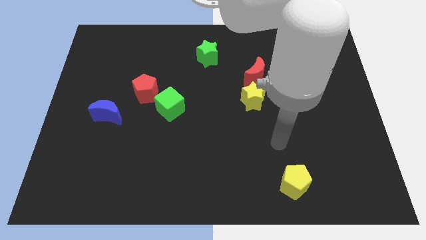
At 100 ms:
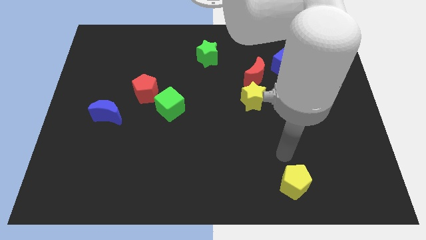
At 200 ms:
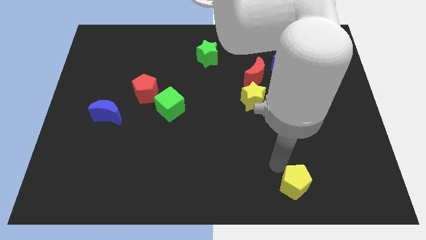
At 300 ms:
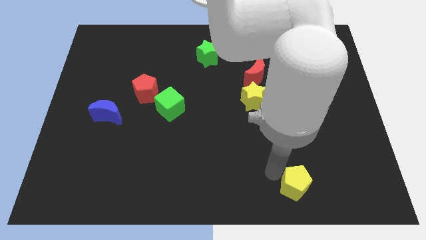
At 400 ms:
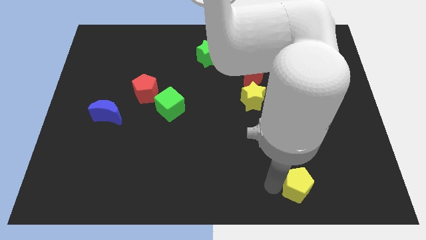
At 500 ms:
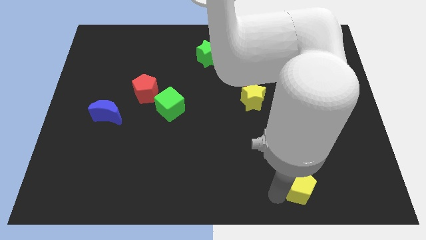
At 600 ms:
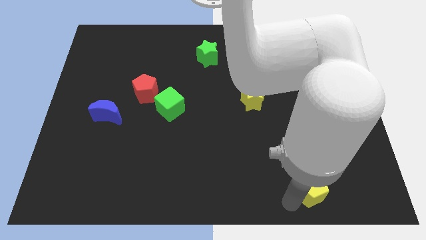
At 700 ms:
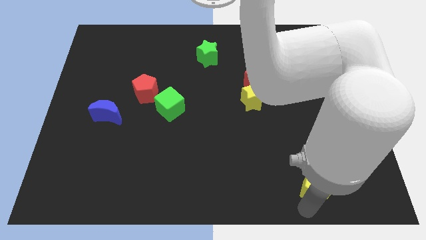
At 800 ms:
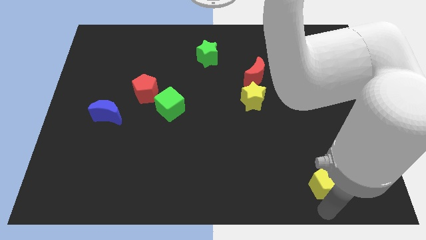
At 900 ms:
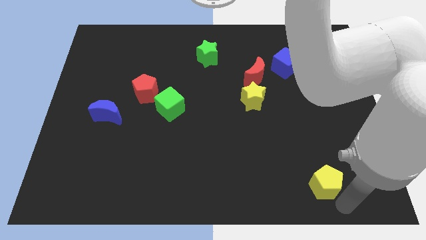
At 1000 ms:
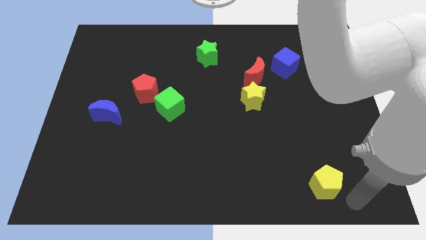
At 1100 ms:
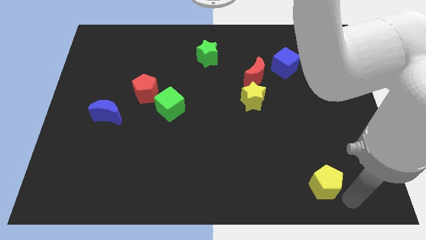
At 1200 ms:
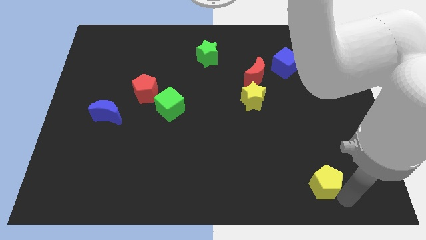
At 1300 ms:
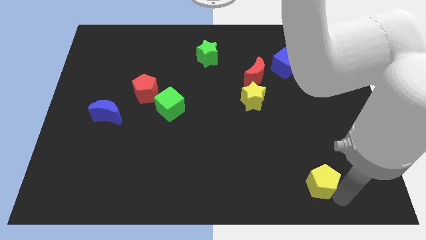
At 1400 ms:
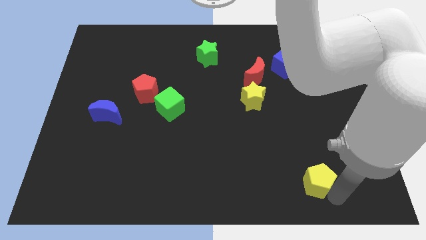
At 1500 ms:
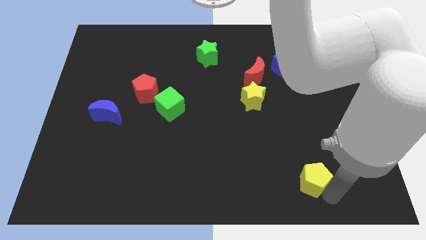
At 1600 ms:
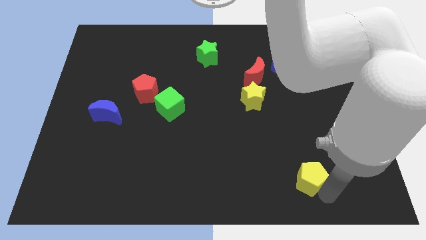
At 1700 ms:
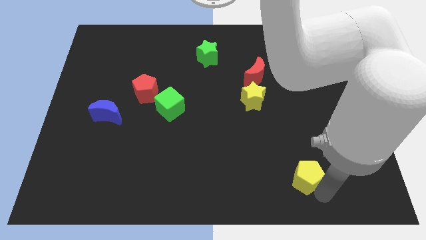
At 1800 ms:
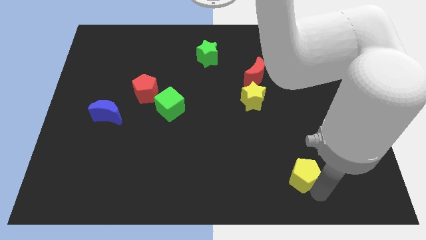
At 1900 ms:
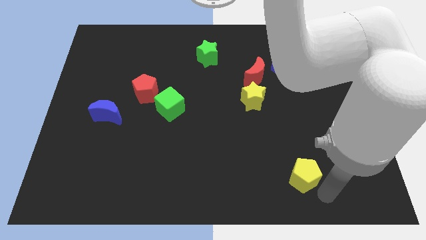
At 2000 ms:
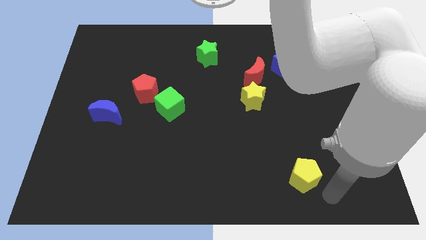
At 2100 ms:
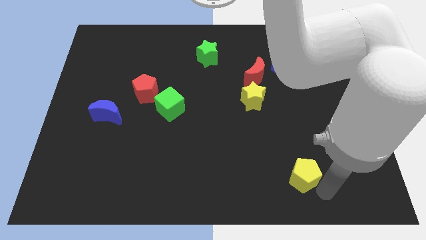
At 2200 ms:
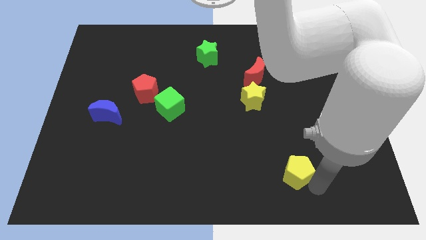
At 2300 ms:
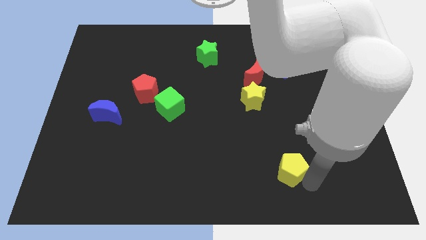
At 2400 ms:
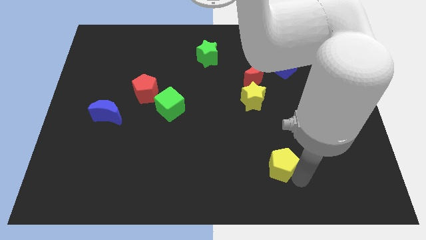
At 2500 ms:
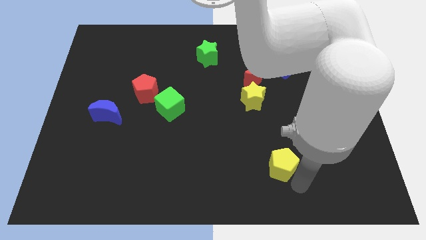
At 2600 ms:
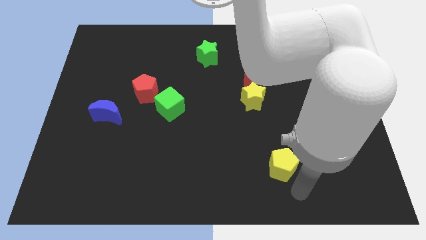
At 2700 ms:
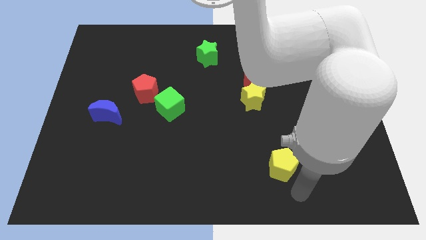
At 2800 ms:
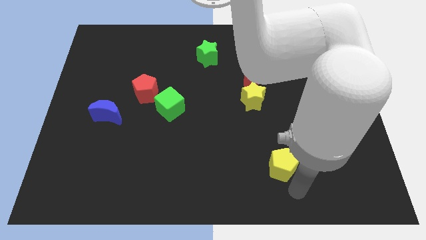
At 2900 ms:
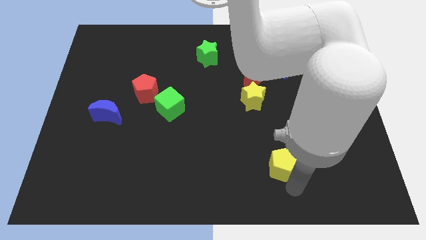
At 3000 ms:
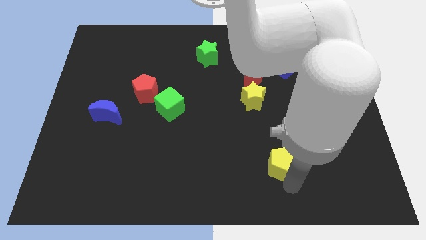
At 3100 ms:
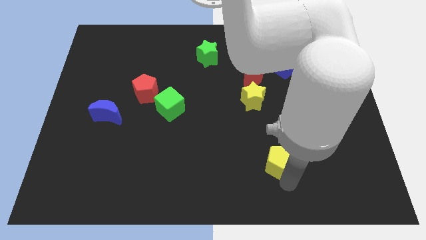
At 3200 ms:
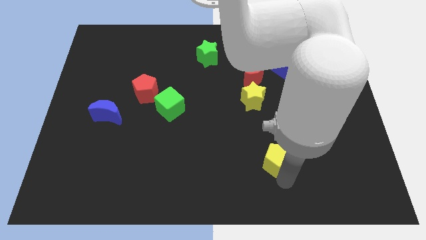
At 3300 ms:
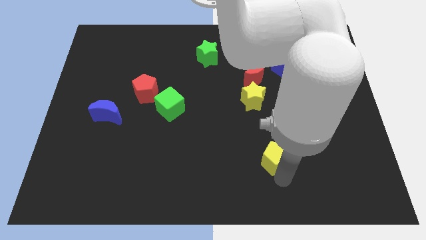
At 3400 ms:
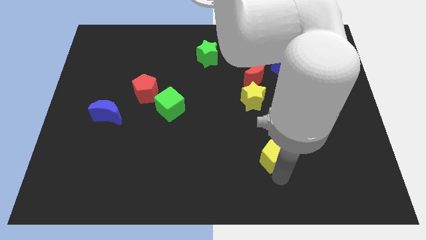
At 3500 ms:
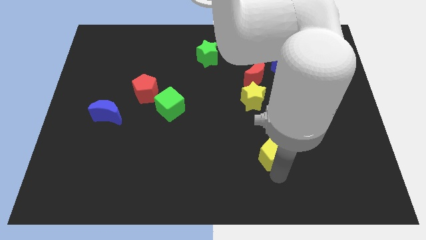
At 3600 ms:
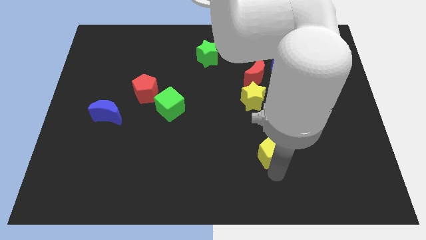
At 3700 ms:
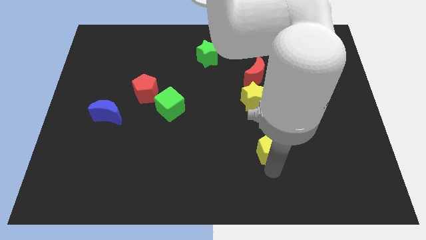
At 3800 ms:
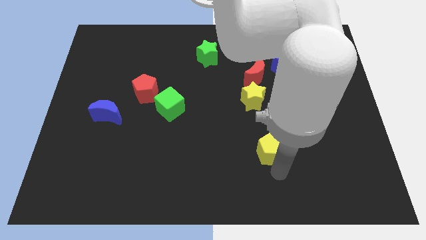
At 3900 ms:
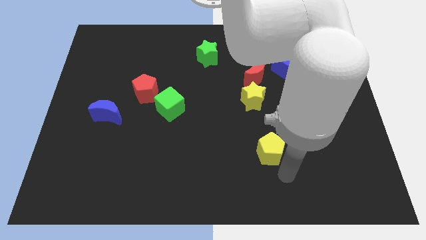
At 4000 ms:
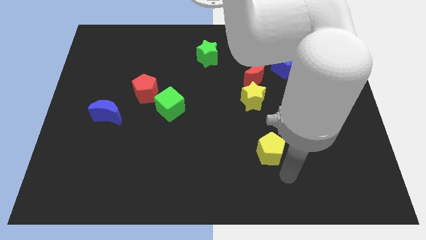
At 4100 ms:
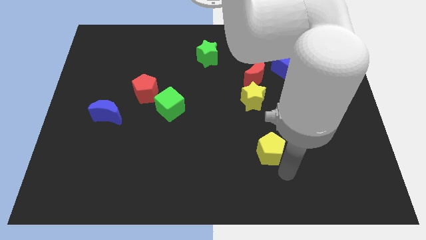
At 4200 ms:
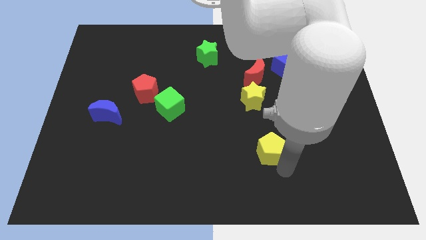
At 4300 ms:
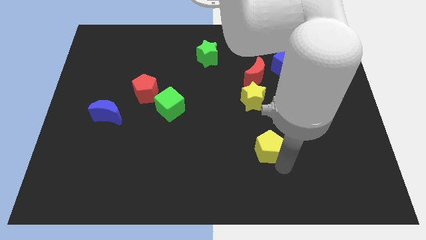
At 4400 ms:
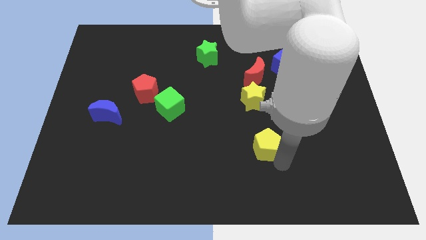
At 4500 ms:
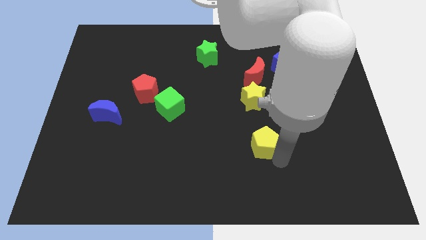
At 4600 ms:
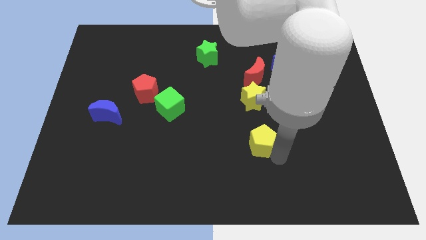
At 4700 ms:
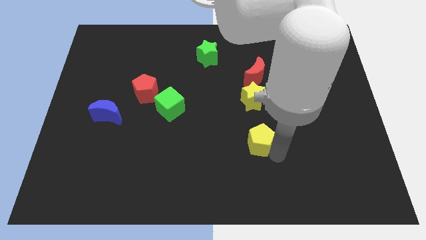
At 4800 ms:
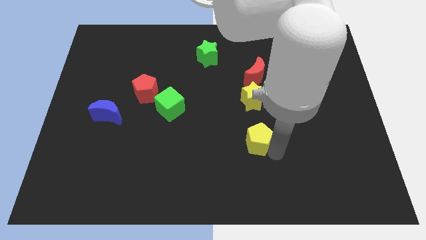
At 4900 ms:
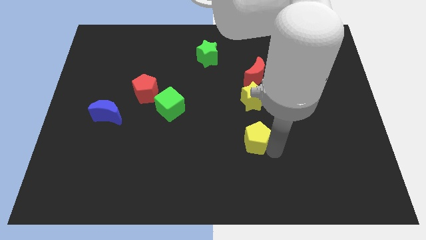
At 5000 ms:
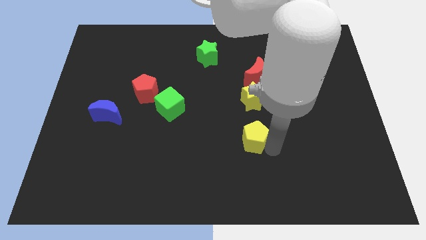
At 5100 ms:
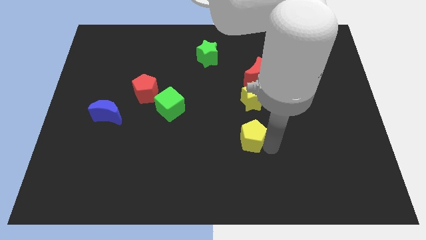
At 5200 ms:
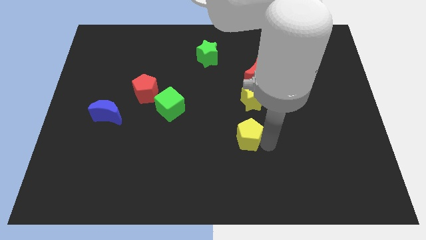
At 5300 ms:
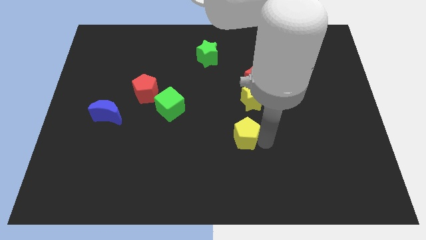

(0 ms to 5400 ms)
push the yellow pentagon to the center

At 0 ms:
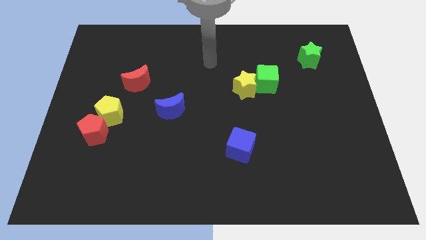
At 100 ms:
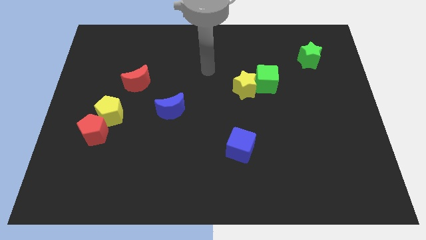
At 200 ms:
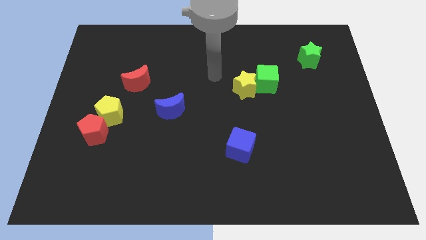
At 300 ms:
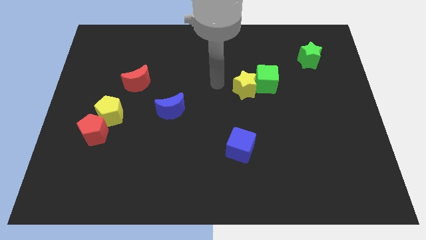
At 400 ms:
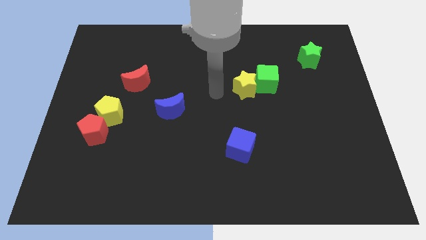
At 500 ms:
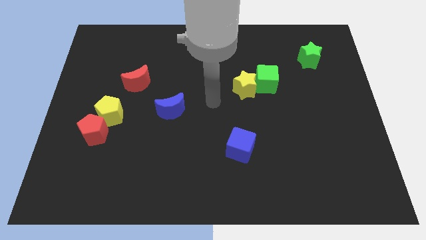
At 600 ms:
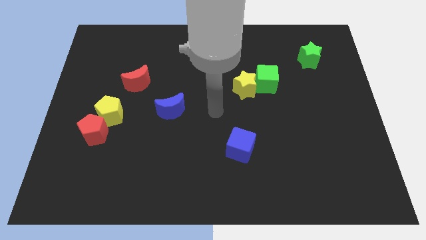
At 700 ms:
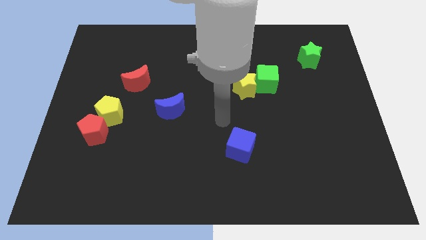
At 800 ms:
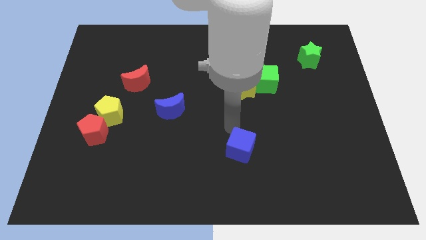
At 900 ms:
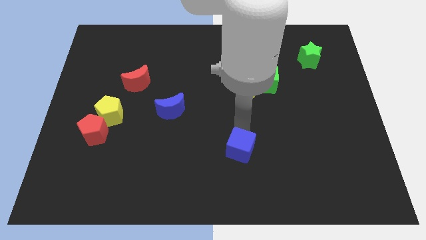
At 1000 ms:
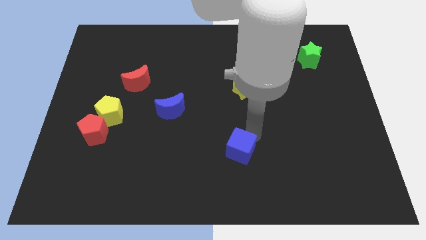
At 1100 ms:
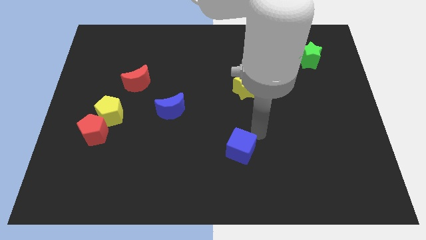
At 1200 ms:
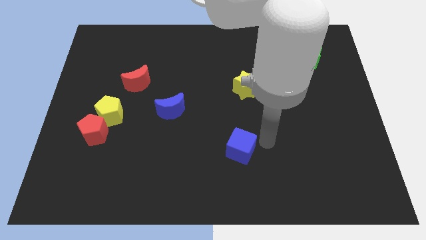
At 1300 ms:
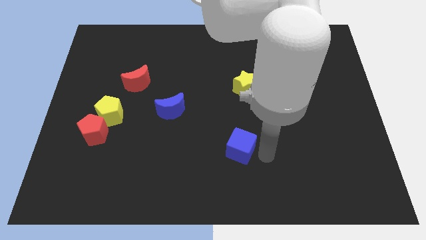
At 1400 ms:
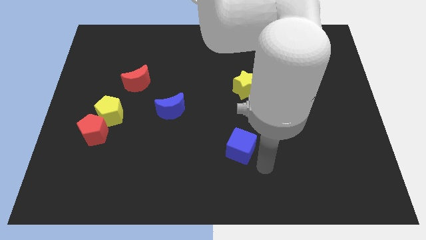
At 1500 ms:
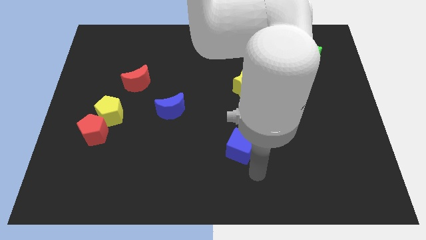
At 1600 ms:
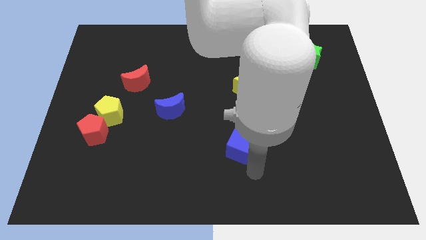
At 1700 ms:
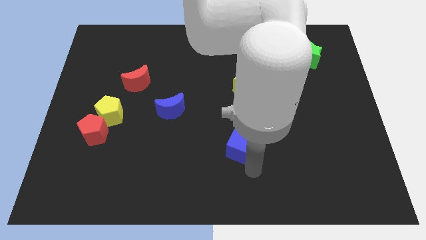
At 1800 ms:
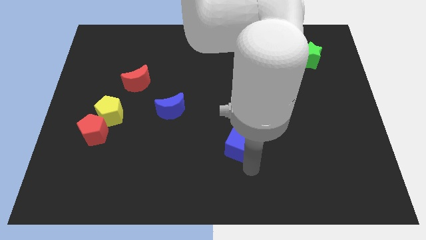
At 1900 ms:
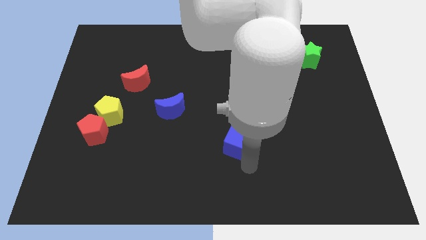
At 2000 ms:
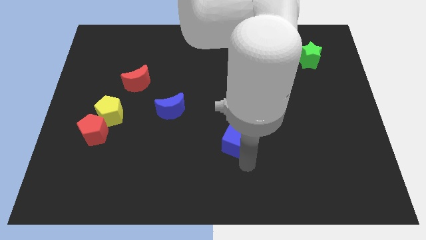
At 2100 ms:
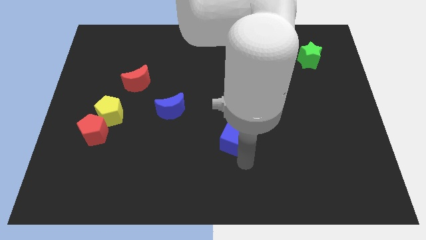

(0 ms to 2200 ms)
slide the blue cube to the middle of the board
